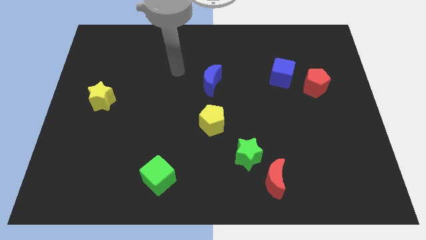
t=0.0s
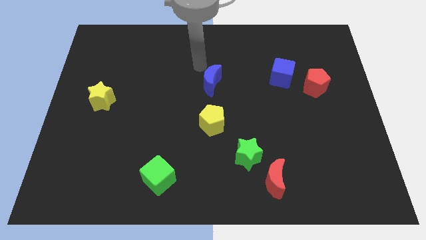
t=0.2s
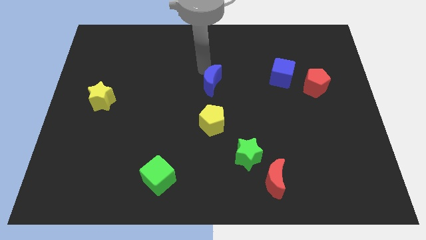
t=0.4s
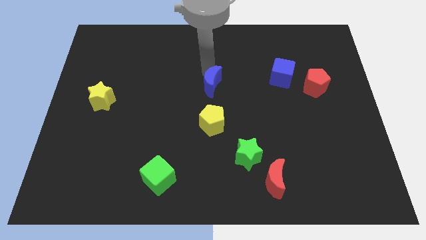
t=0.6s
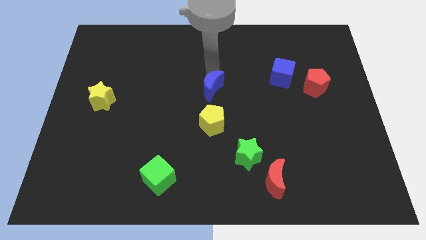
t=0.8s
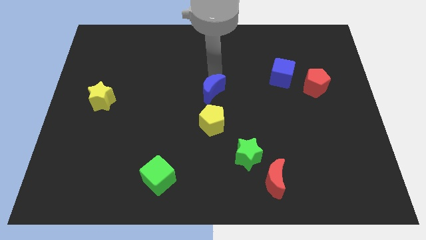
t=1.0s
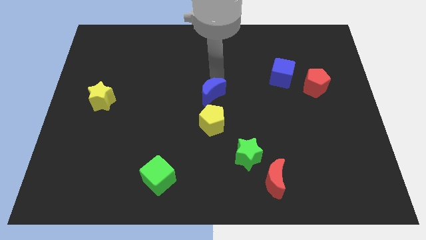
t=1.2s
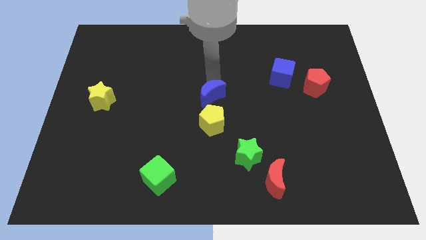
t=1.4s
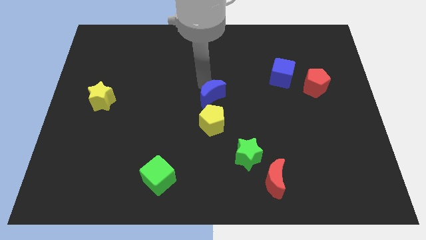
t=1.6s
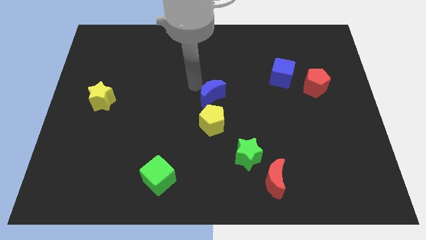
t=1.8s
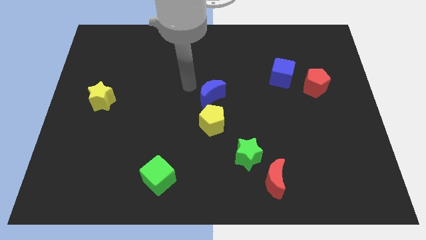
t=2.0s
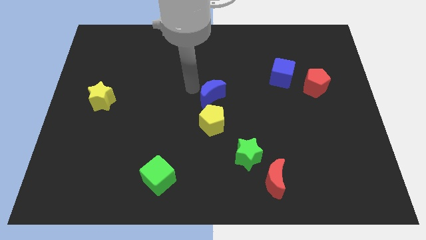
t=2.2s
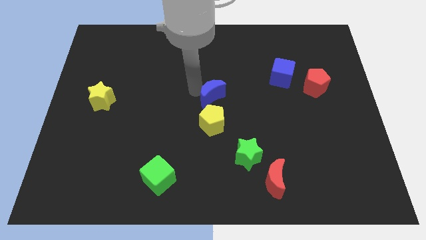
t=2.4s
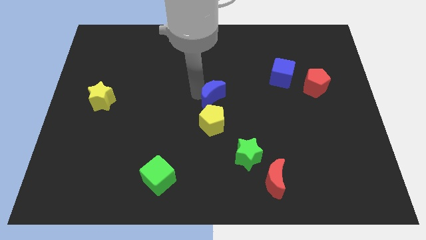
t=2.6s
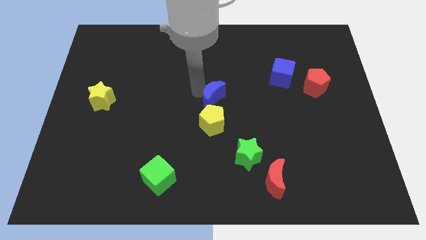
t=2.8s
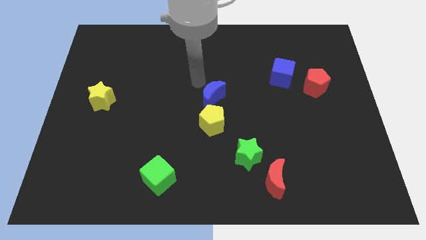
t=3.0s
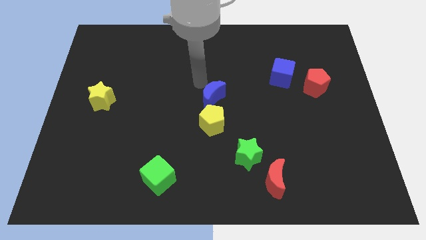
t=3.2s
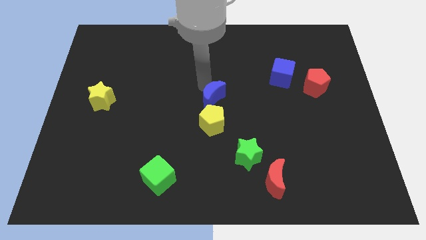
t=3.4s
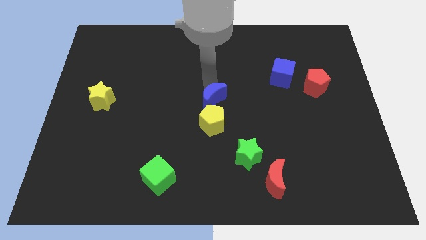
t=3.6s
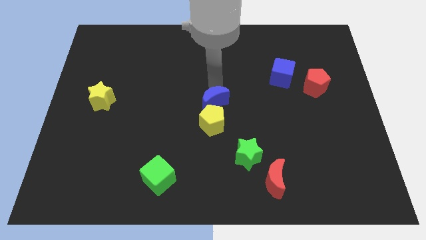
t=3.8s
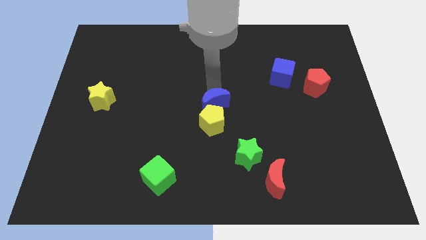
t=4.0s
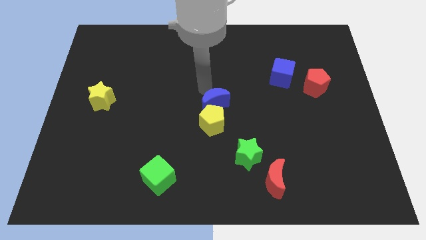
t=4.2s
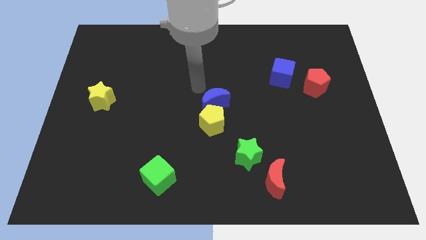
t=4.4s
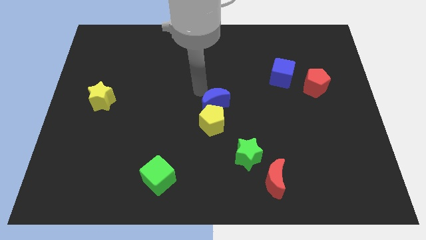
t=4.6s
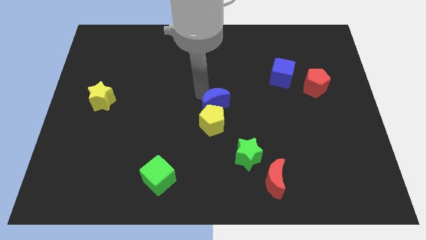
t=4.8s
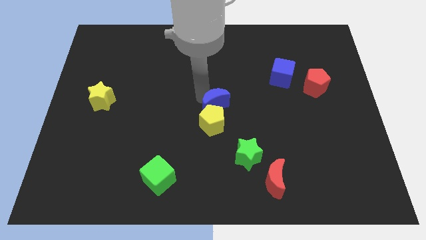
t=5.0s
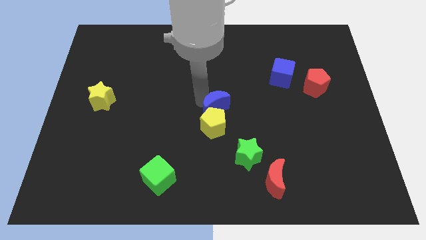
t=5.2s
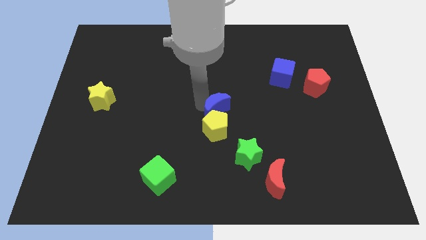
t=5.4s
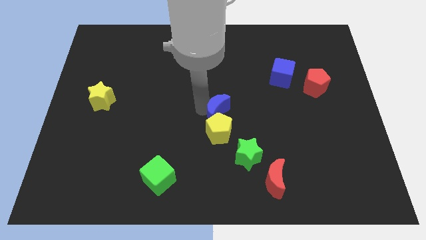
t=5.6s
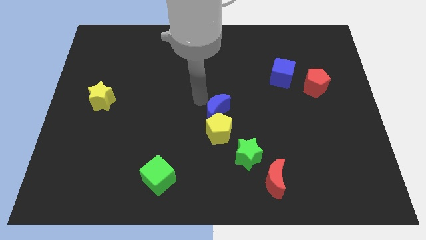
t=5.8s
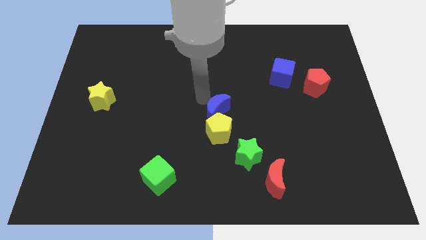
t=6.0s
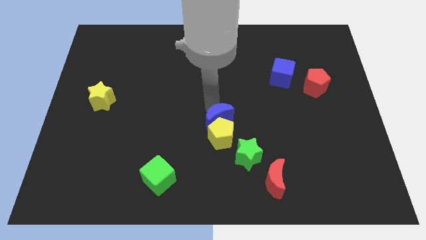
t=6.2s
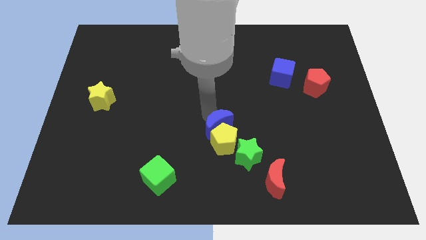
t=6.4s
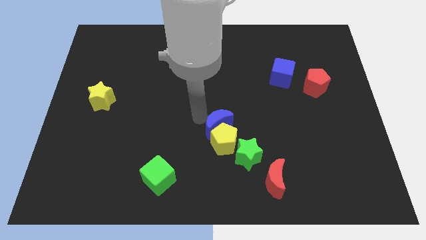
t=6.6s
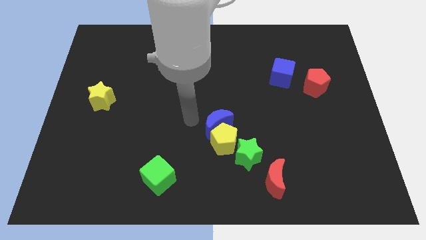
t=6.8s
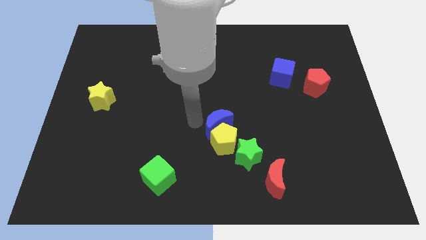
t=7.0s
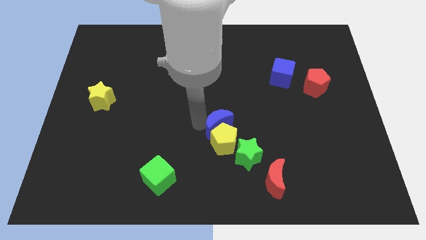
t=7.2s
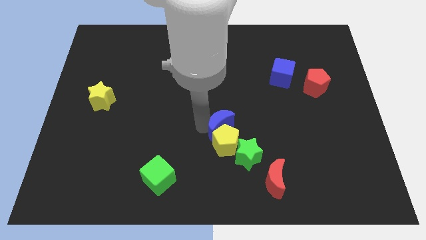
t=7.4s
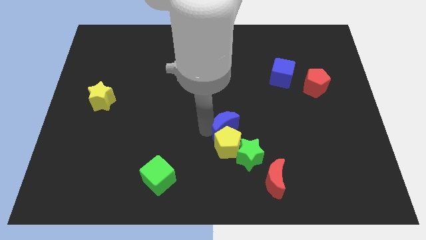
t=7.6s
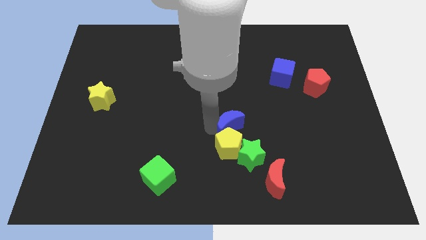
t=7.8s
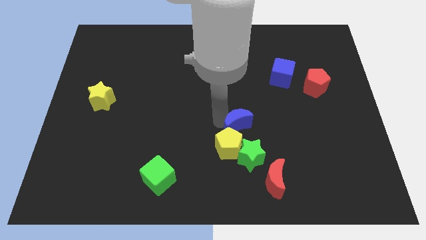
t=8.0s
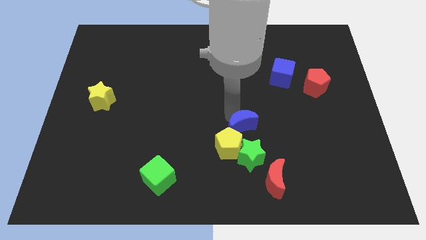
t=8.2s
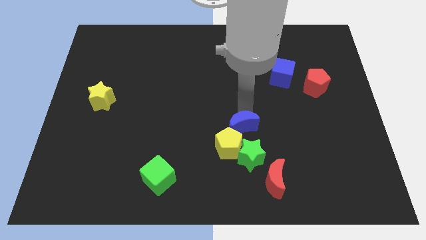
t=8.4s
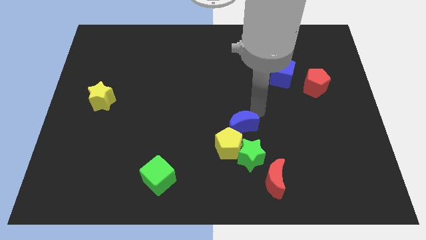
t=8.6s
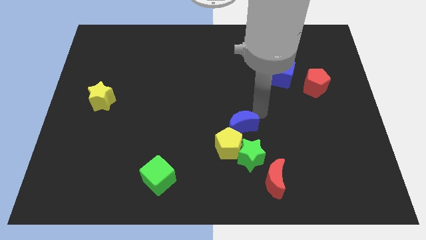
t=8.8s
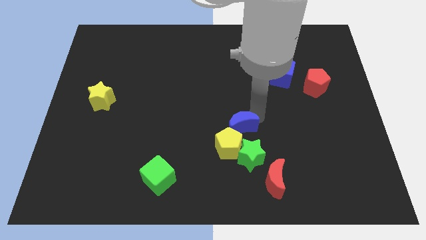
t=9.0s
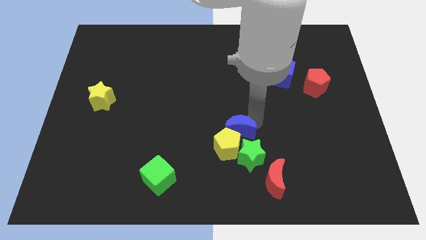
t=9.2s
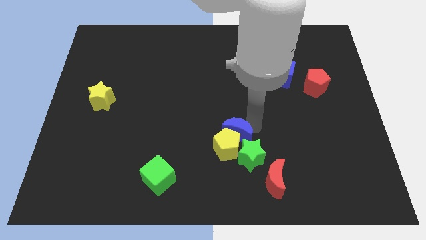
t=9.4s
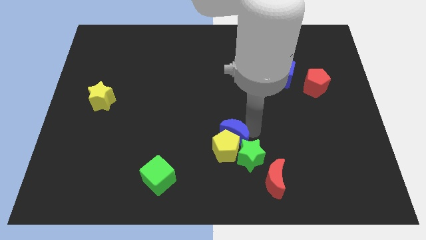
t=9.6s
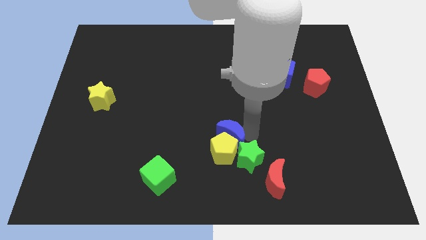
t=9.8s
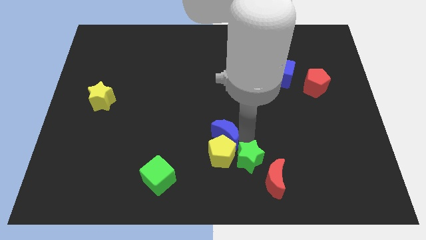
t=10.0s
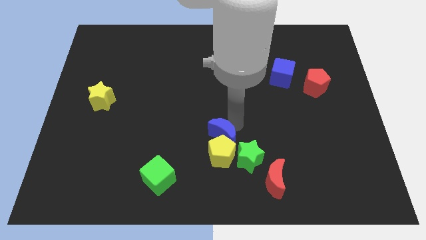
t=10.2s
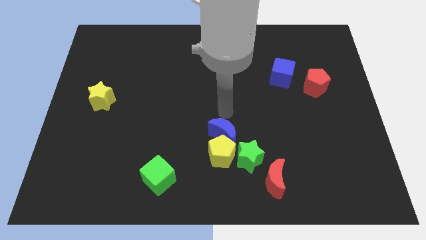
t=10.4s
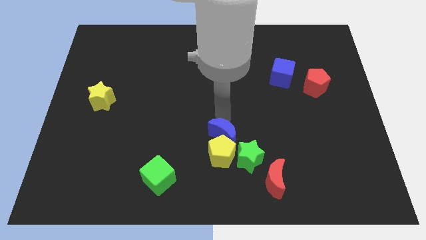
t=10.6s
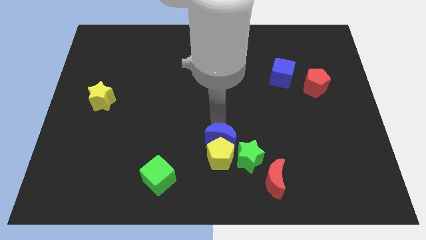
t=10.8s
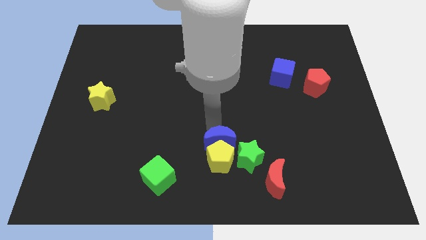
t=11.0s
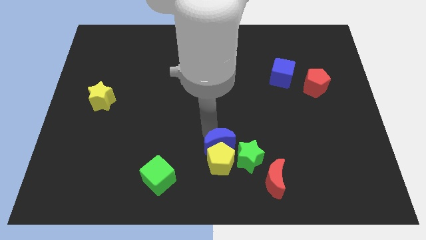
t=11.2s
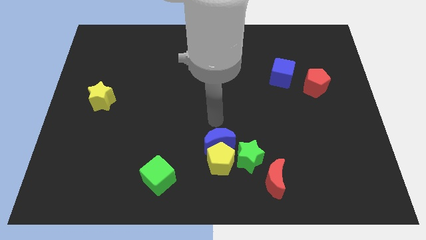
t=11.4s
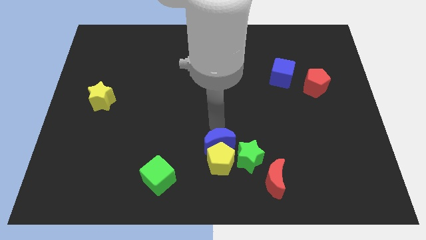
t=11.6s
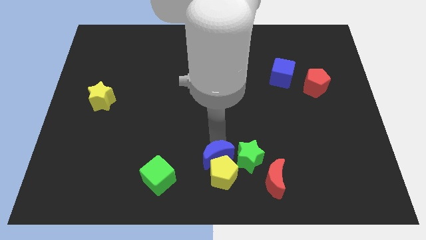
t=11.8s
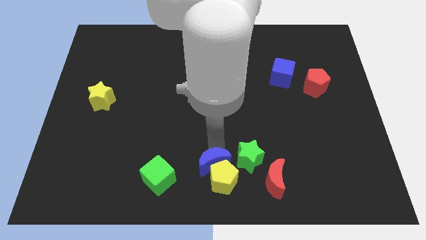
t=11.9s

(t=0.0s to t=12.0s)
push the blue moon to the bottom left side of the green star

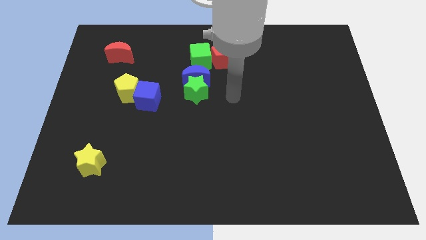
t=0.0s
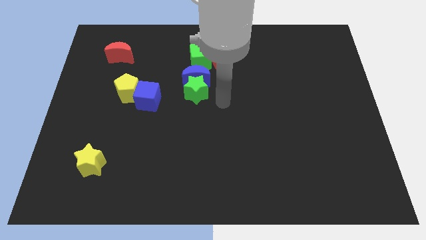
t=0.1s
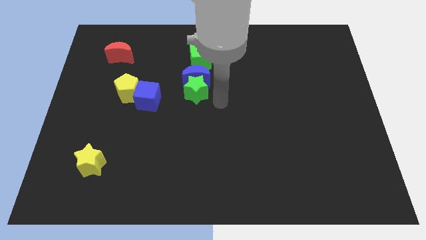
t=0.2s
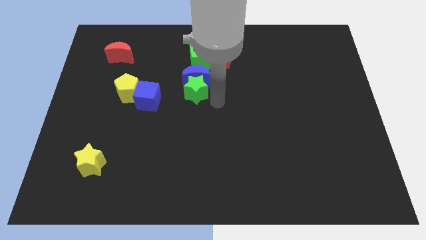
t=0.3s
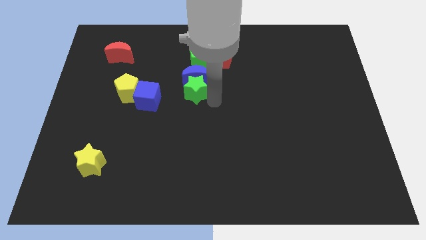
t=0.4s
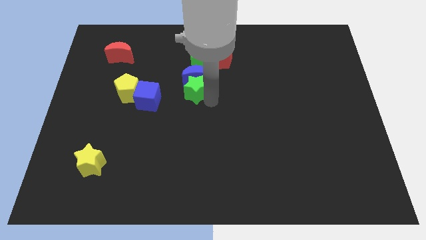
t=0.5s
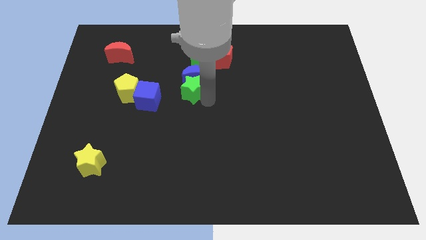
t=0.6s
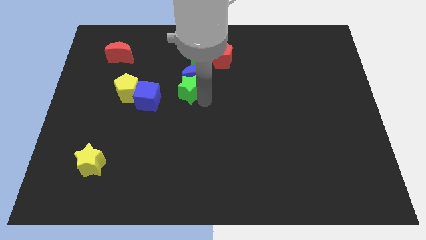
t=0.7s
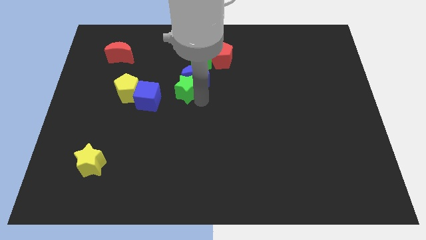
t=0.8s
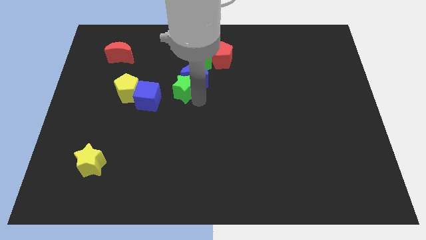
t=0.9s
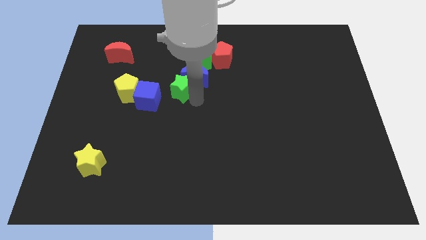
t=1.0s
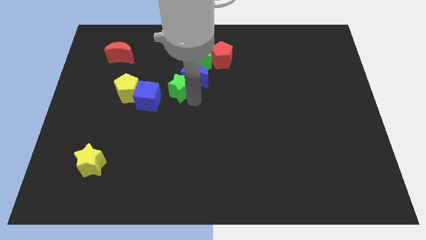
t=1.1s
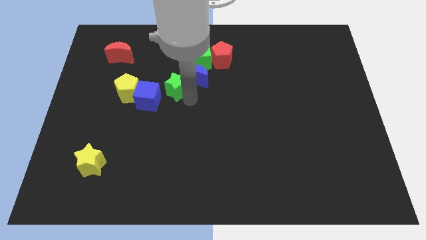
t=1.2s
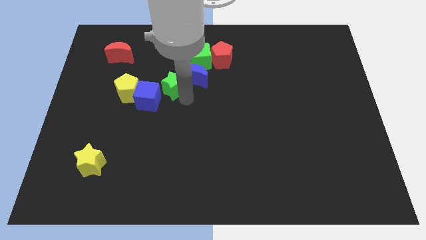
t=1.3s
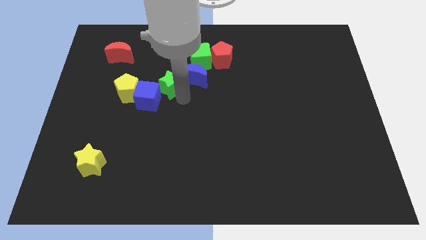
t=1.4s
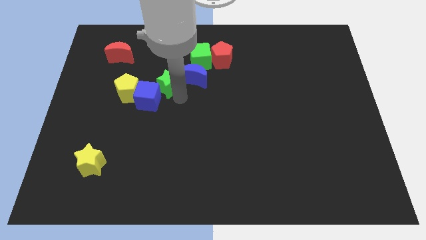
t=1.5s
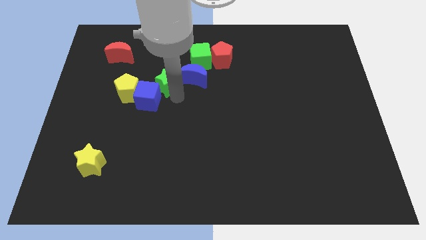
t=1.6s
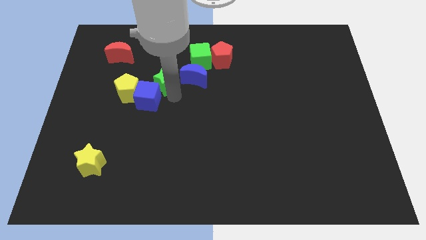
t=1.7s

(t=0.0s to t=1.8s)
push the green star to the top right of the yellow pentagon
